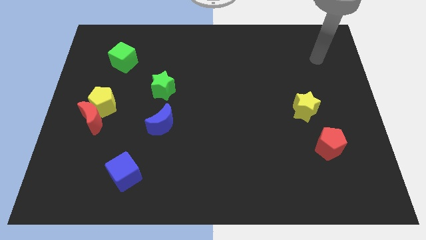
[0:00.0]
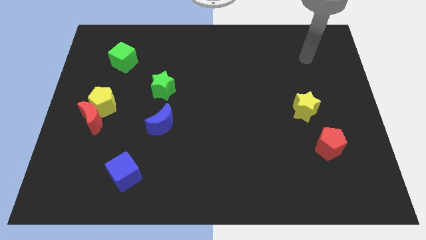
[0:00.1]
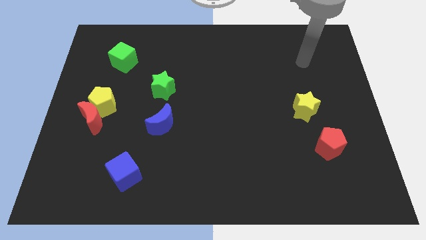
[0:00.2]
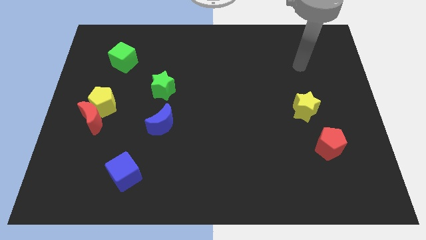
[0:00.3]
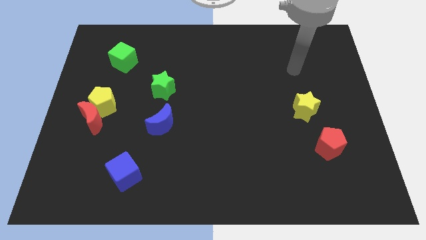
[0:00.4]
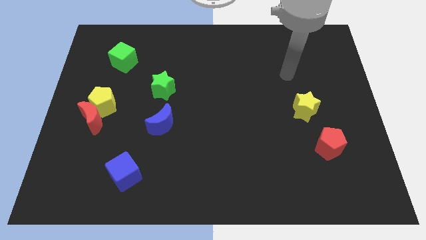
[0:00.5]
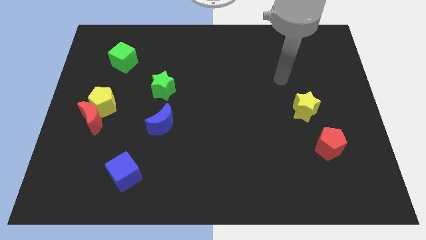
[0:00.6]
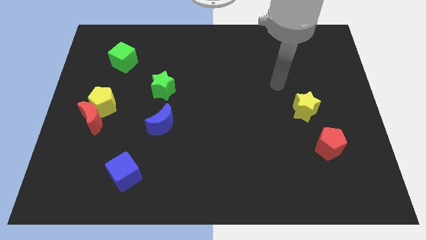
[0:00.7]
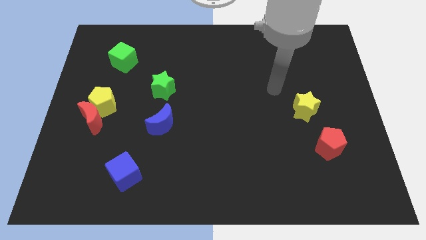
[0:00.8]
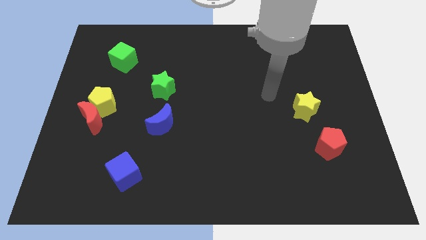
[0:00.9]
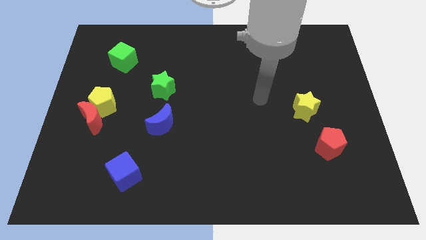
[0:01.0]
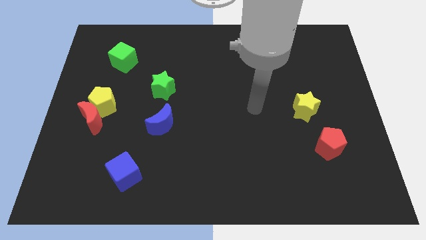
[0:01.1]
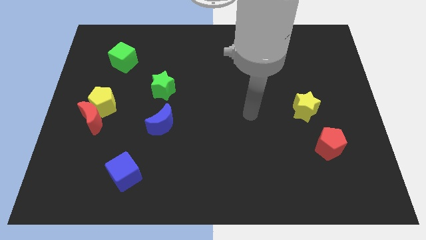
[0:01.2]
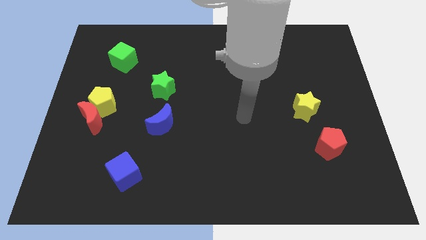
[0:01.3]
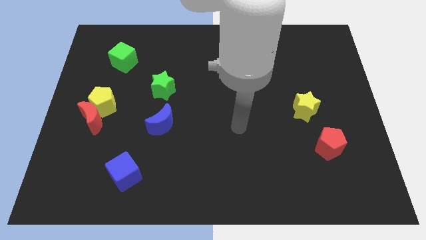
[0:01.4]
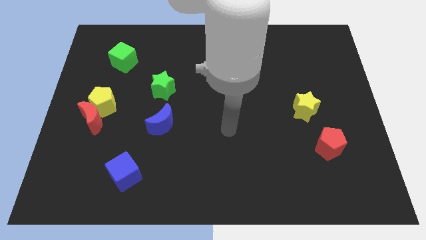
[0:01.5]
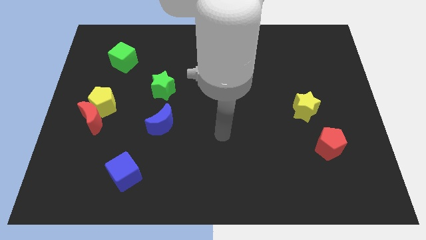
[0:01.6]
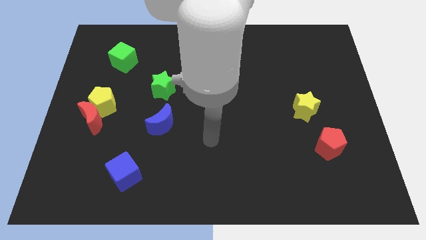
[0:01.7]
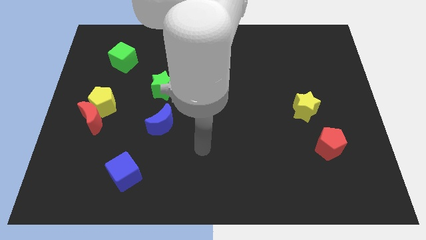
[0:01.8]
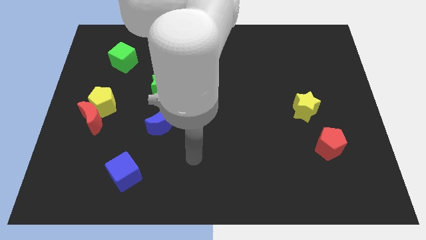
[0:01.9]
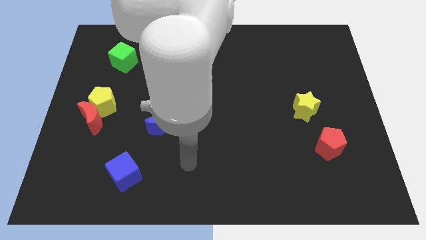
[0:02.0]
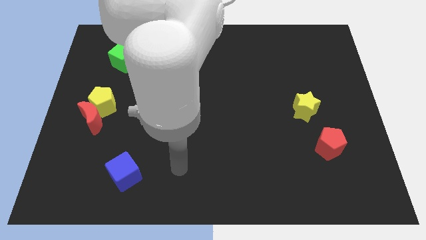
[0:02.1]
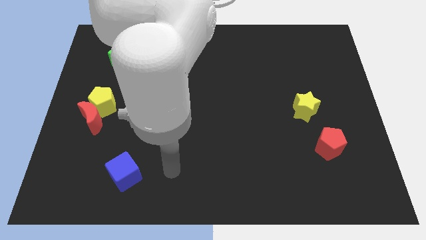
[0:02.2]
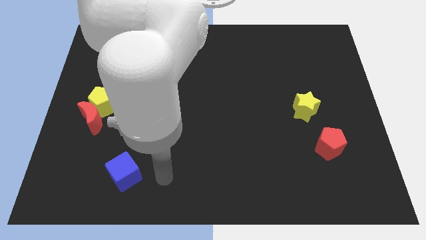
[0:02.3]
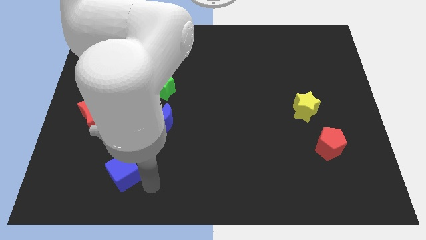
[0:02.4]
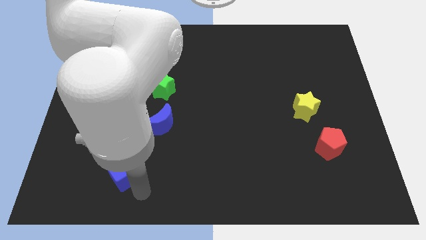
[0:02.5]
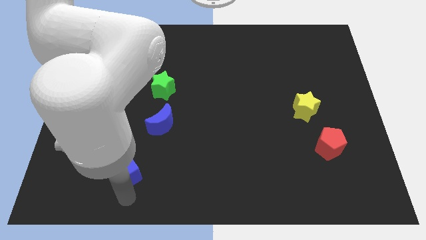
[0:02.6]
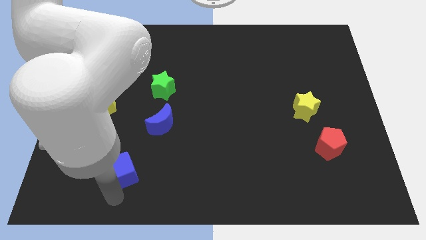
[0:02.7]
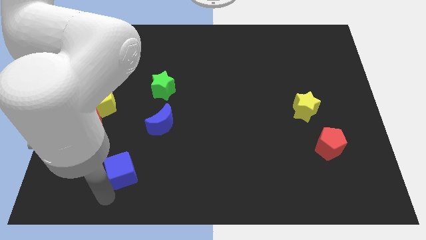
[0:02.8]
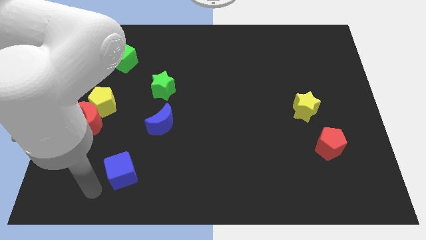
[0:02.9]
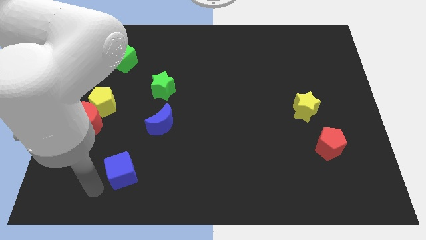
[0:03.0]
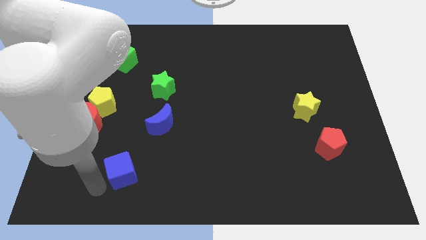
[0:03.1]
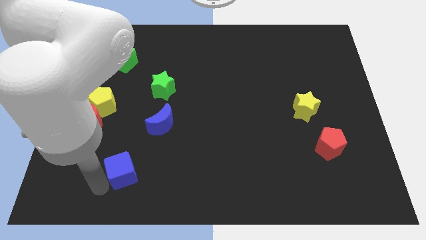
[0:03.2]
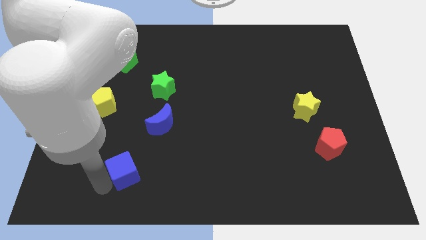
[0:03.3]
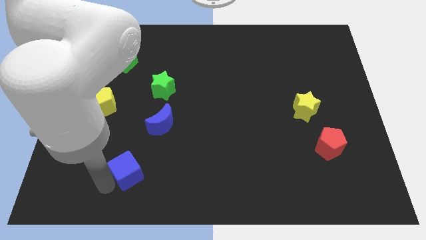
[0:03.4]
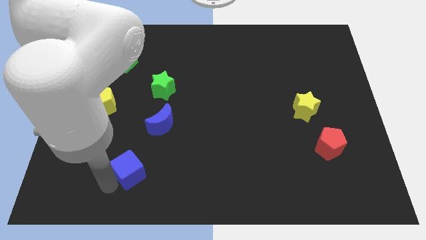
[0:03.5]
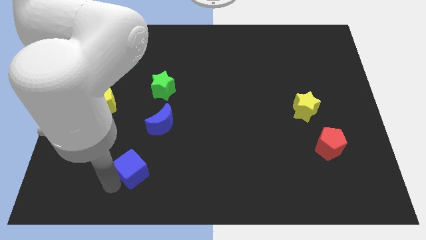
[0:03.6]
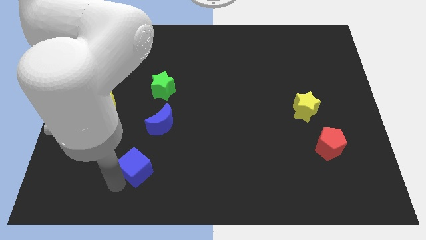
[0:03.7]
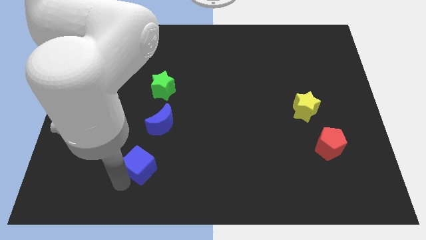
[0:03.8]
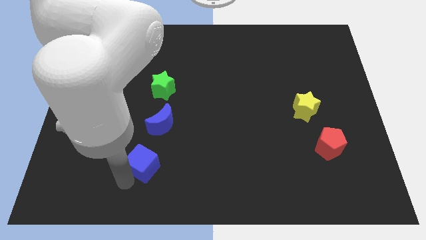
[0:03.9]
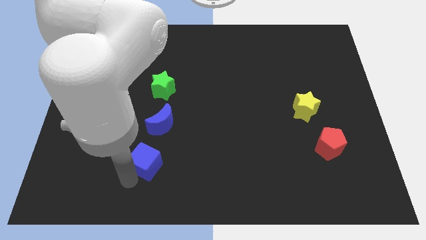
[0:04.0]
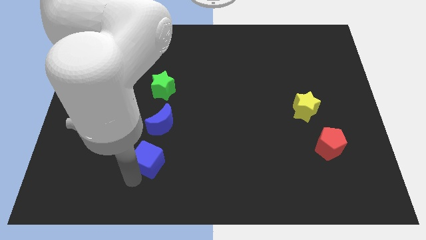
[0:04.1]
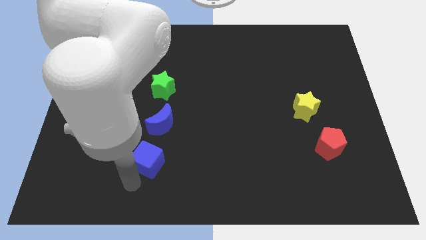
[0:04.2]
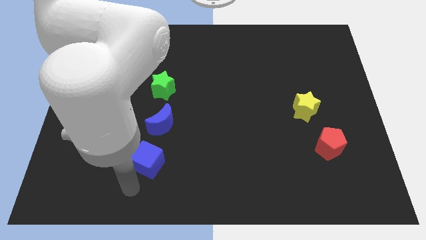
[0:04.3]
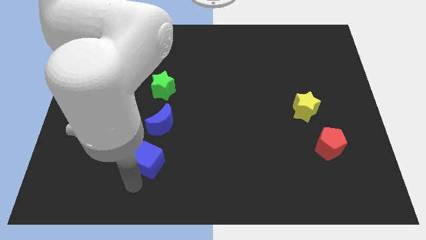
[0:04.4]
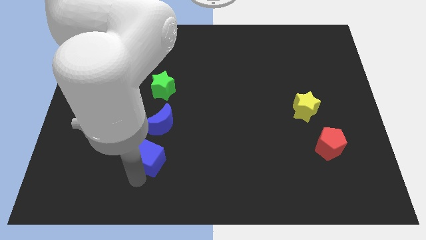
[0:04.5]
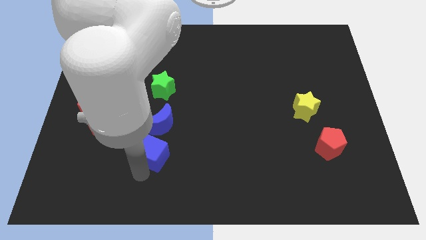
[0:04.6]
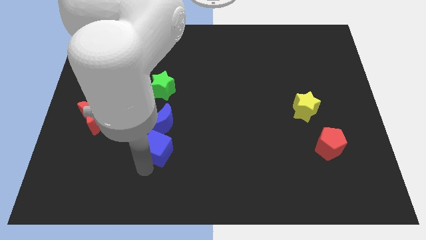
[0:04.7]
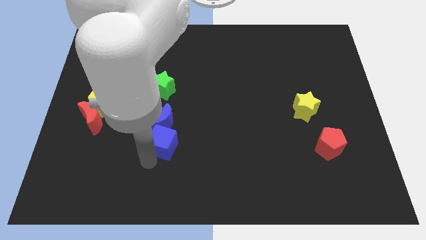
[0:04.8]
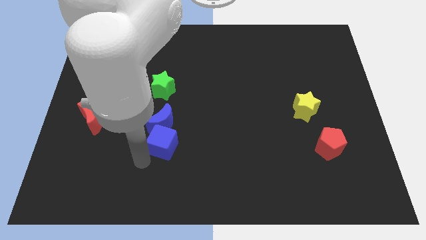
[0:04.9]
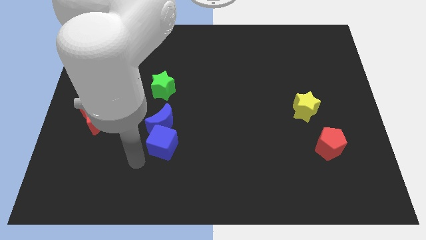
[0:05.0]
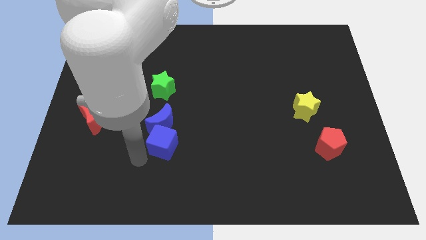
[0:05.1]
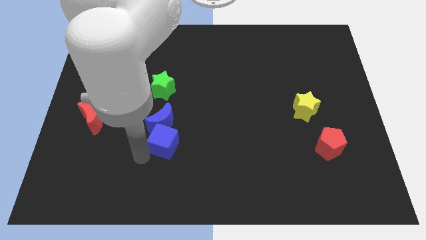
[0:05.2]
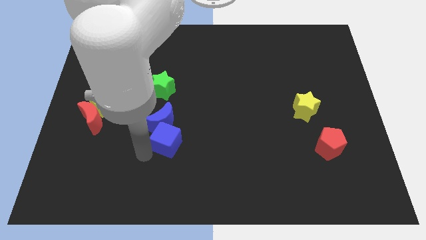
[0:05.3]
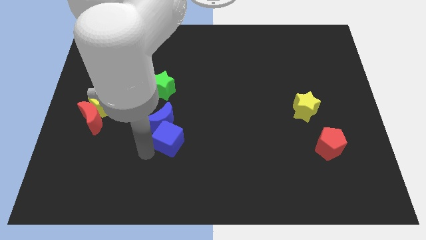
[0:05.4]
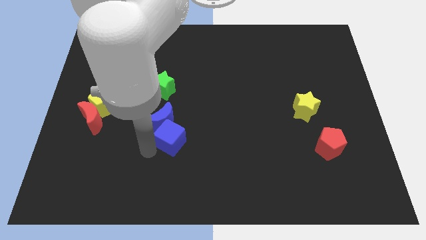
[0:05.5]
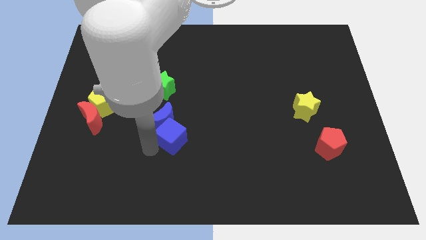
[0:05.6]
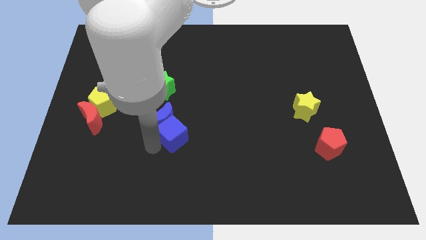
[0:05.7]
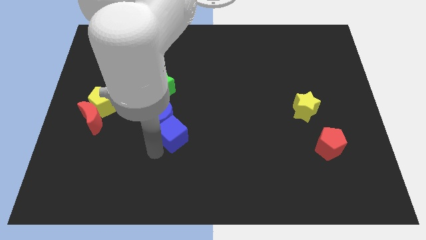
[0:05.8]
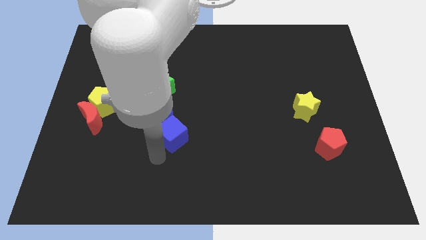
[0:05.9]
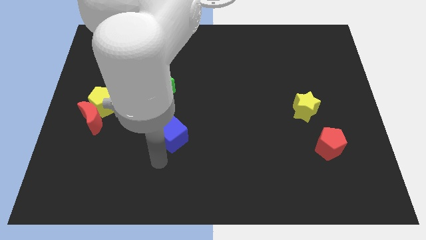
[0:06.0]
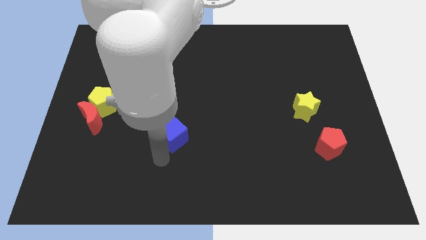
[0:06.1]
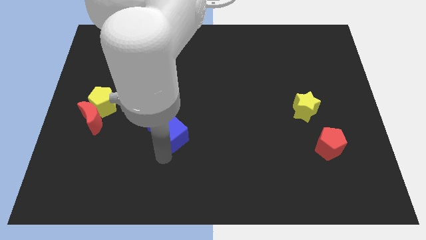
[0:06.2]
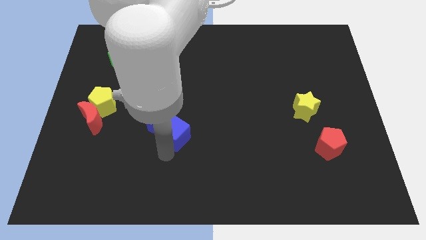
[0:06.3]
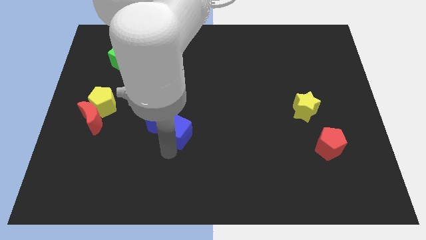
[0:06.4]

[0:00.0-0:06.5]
put the blue cube to the middle
